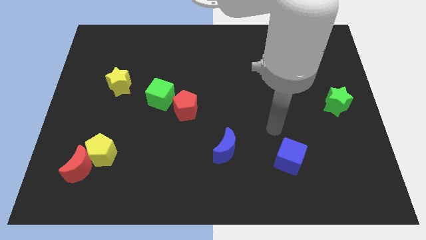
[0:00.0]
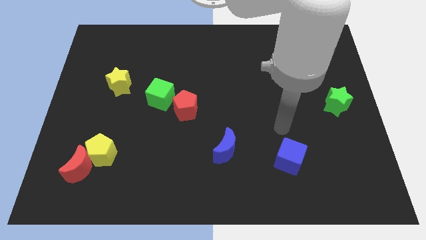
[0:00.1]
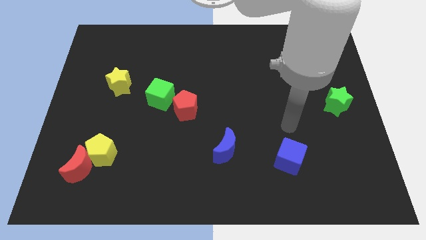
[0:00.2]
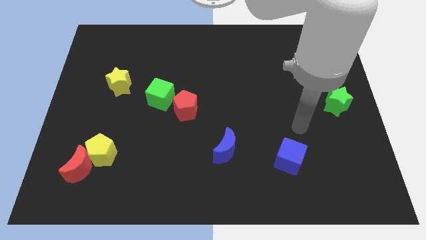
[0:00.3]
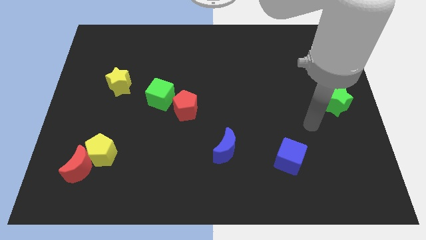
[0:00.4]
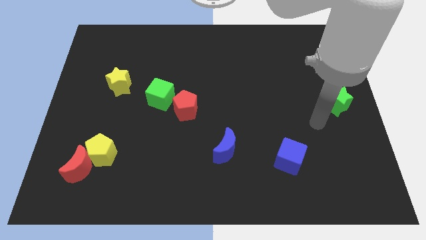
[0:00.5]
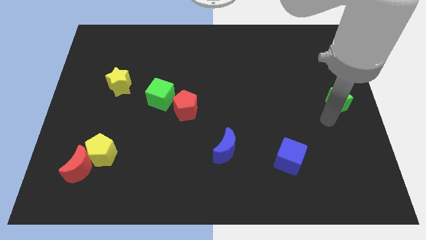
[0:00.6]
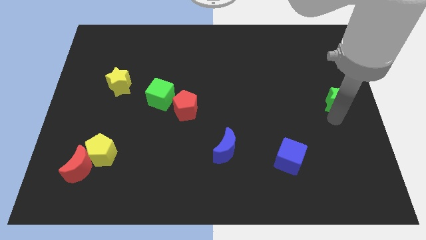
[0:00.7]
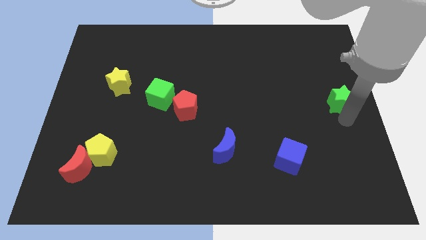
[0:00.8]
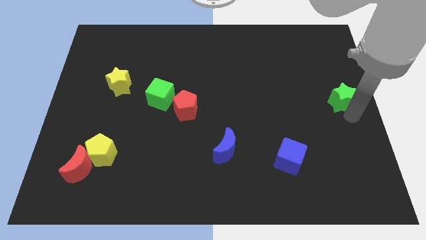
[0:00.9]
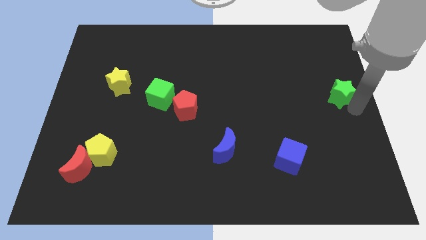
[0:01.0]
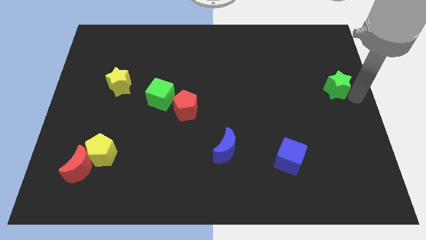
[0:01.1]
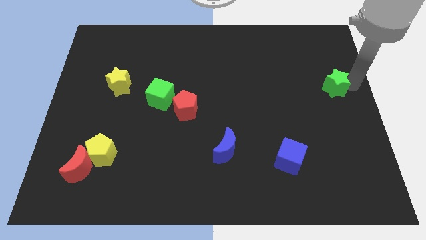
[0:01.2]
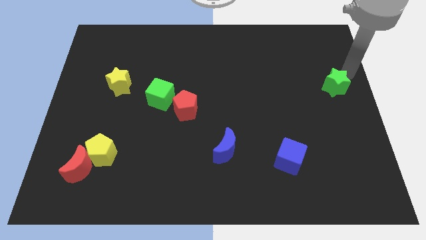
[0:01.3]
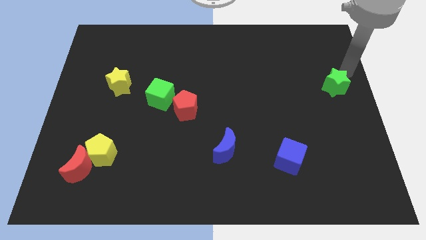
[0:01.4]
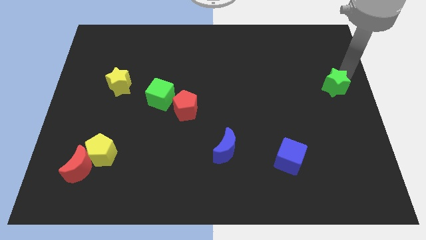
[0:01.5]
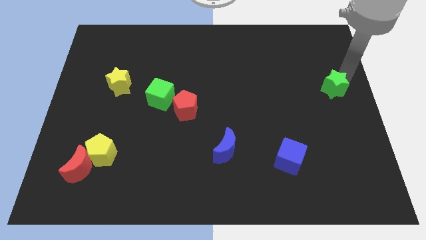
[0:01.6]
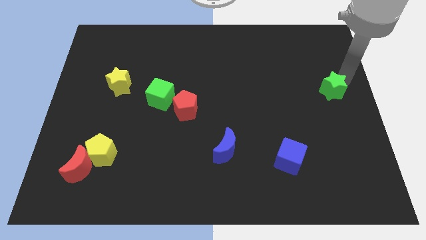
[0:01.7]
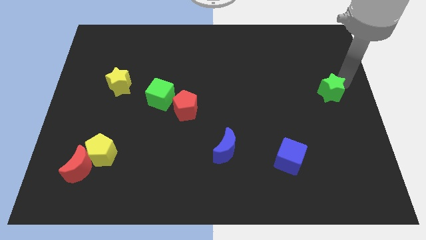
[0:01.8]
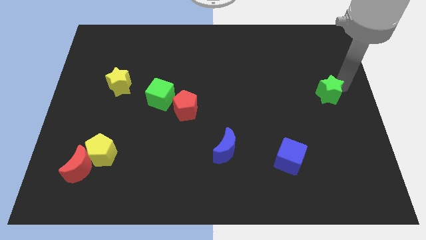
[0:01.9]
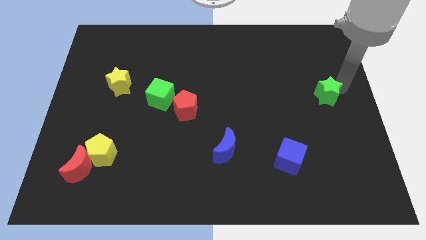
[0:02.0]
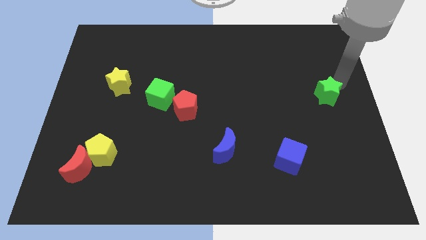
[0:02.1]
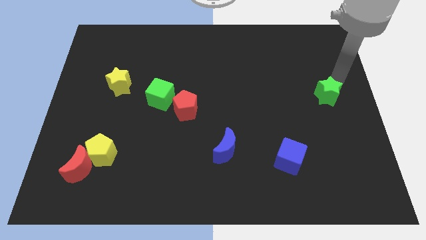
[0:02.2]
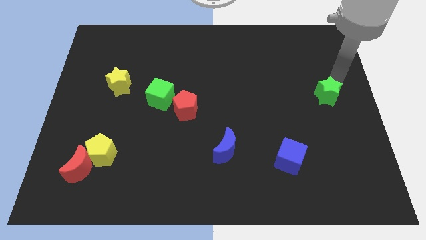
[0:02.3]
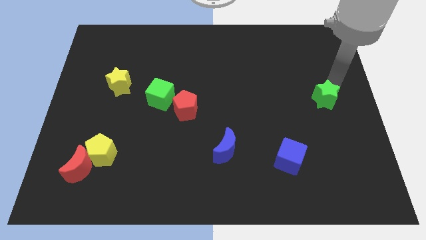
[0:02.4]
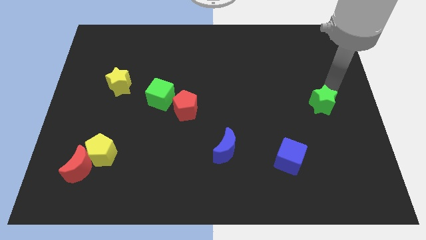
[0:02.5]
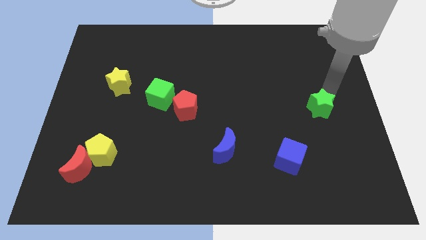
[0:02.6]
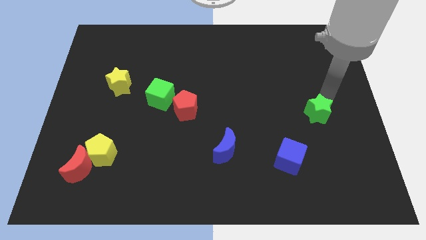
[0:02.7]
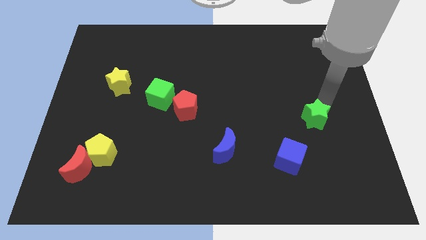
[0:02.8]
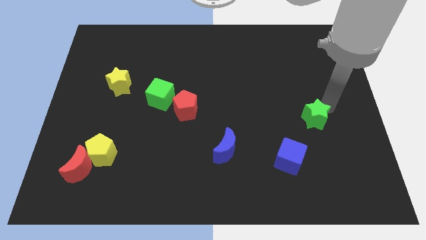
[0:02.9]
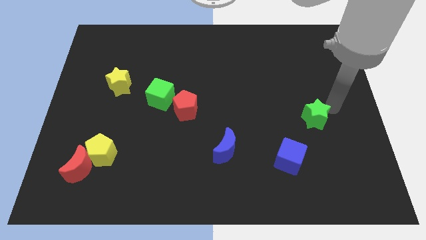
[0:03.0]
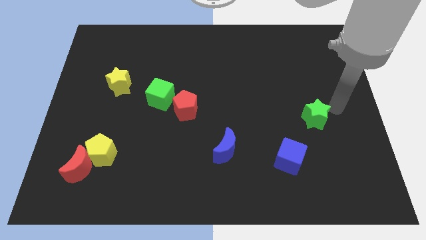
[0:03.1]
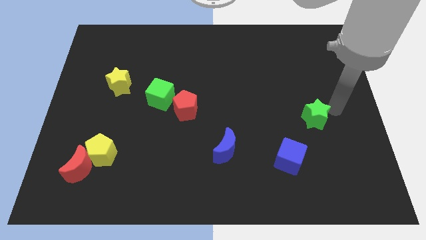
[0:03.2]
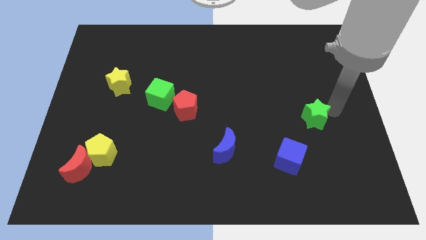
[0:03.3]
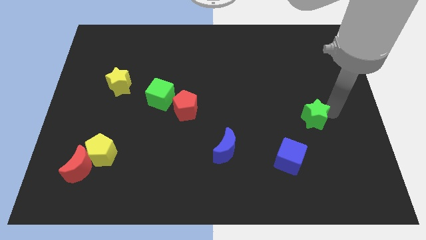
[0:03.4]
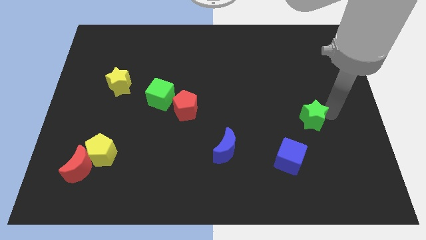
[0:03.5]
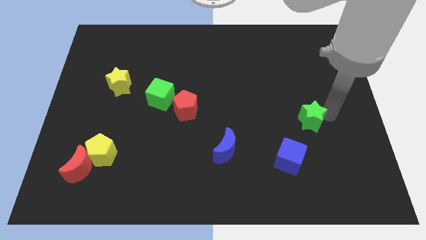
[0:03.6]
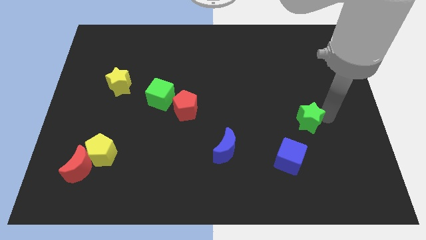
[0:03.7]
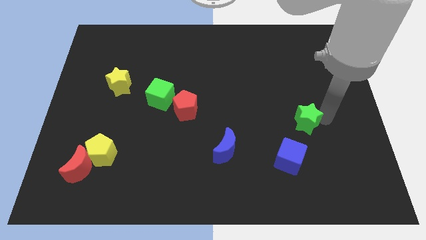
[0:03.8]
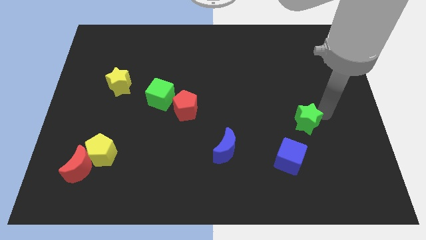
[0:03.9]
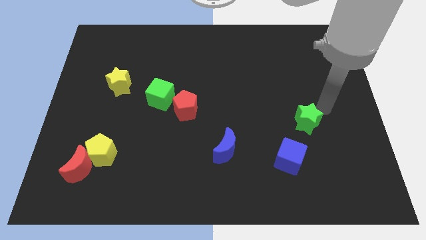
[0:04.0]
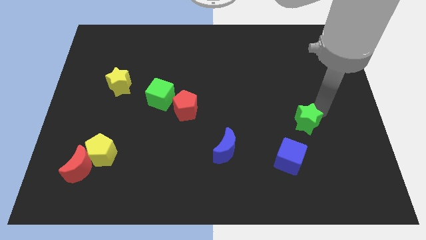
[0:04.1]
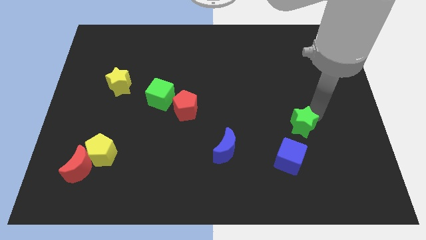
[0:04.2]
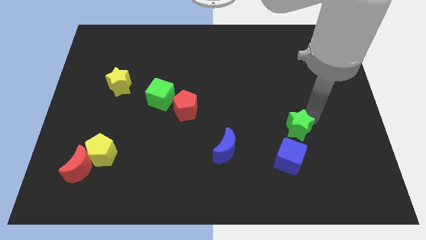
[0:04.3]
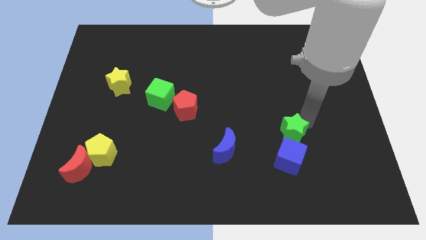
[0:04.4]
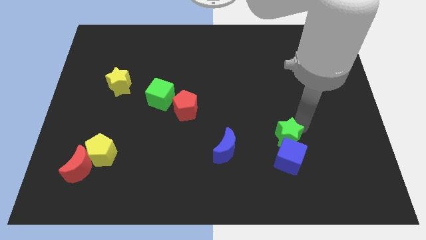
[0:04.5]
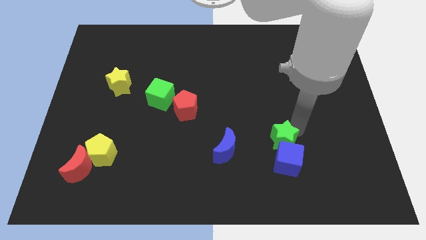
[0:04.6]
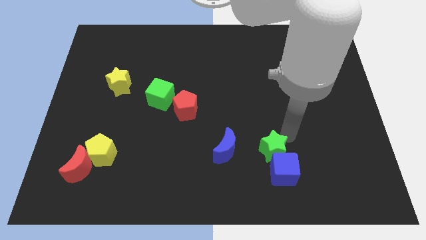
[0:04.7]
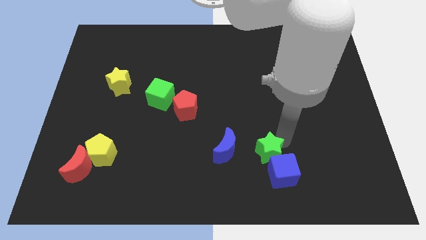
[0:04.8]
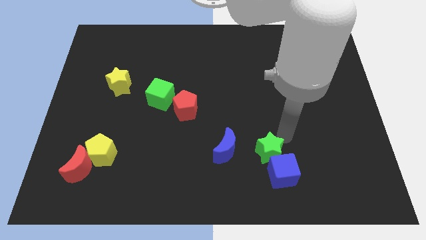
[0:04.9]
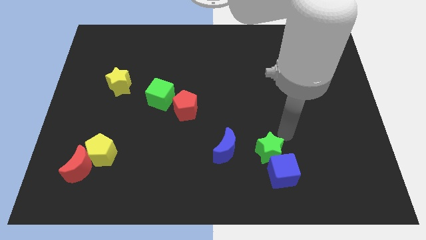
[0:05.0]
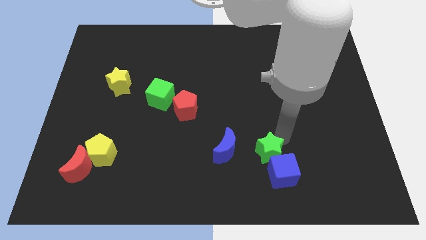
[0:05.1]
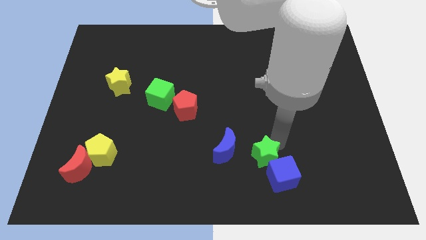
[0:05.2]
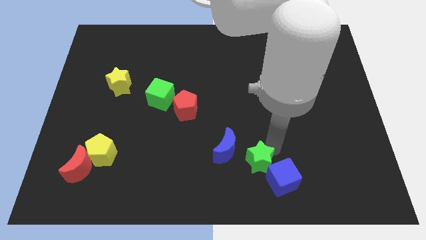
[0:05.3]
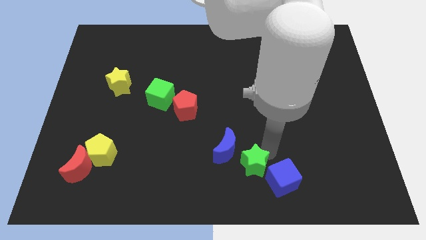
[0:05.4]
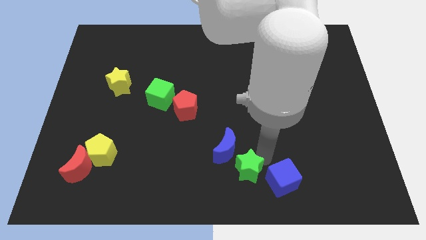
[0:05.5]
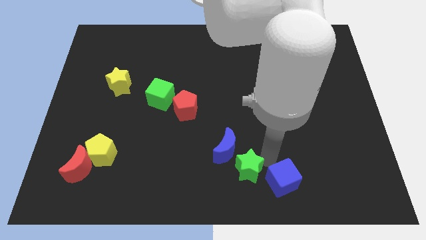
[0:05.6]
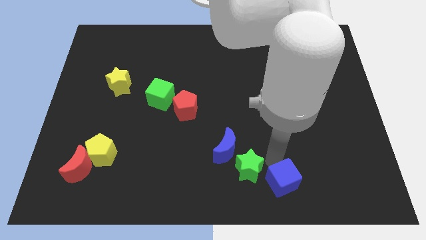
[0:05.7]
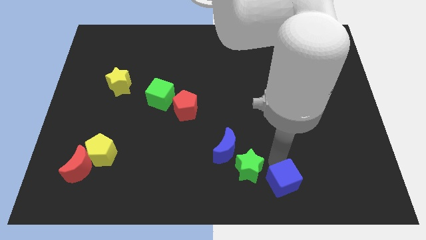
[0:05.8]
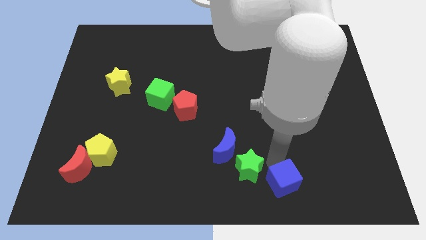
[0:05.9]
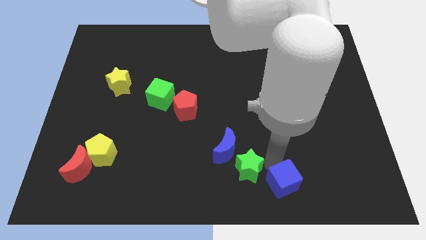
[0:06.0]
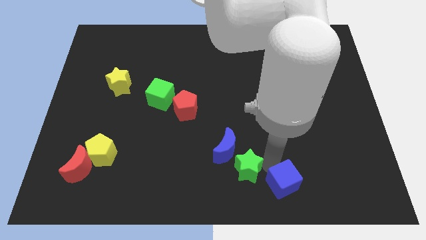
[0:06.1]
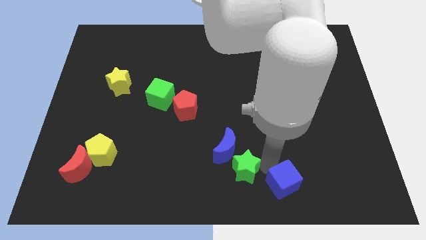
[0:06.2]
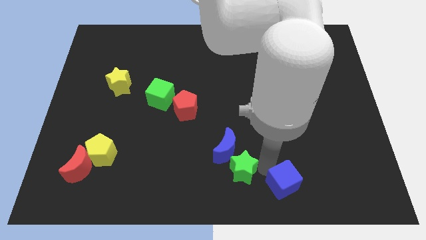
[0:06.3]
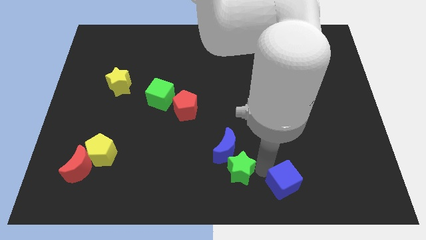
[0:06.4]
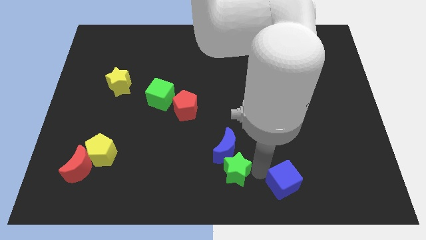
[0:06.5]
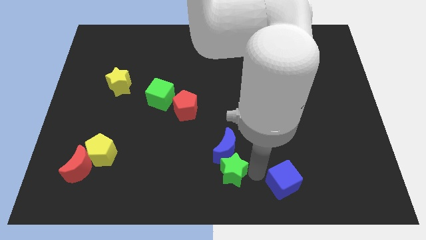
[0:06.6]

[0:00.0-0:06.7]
move the green star to the bottom left side of the blue moon

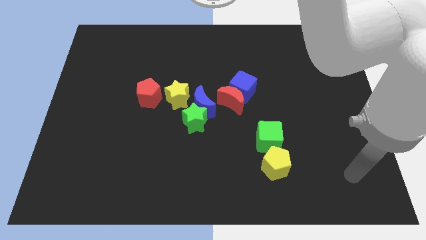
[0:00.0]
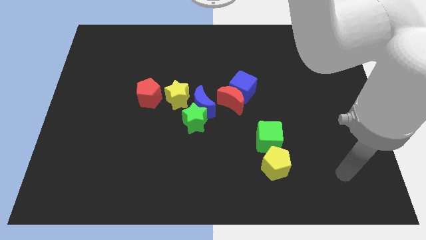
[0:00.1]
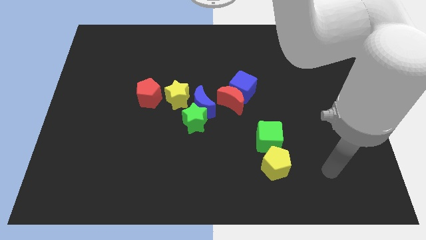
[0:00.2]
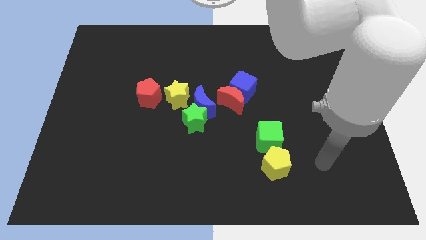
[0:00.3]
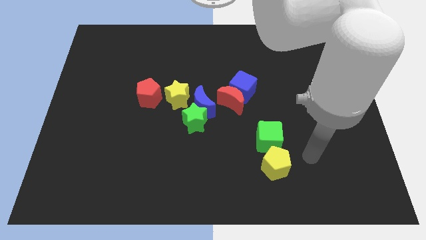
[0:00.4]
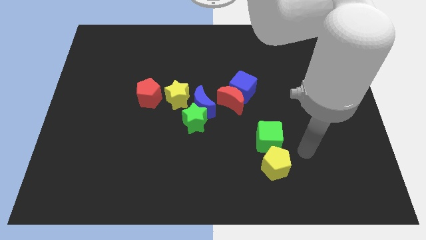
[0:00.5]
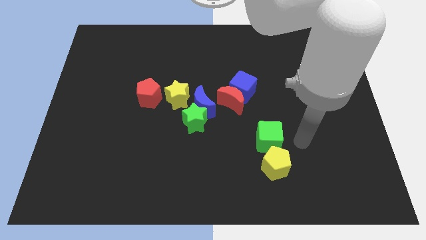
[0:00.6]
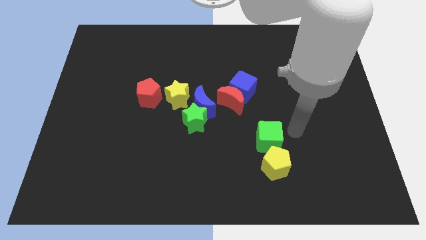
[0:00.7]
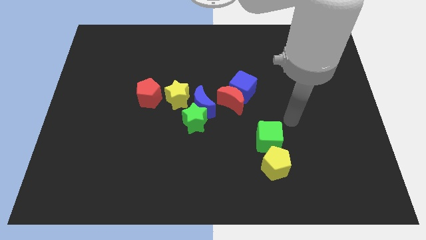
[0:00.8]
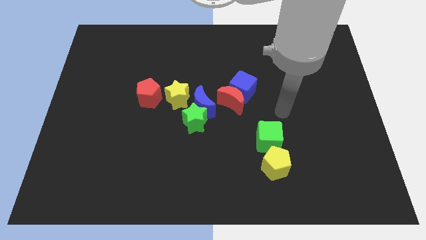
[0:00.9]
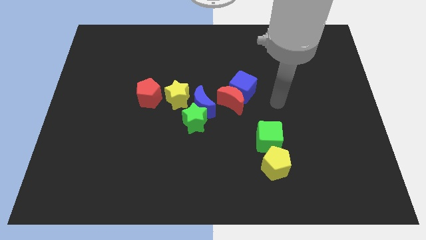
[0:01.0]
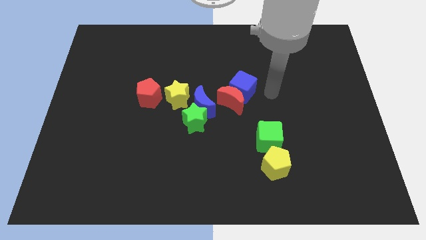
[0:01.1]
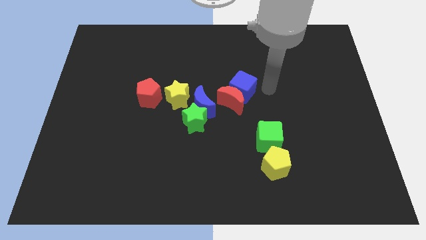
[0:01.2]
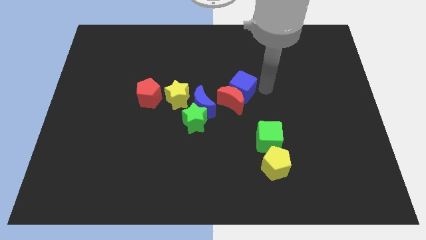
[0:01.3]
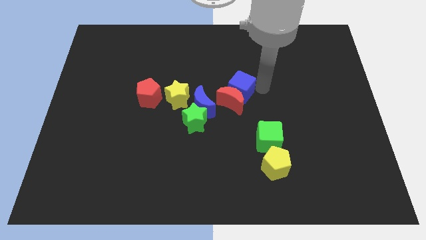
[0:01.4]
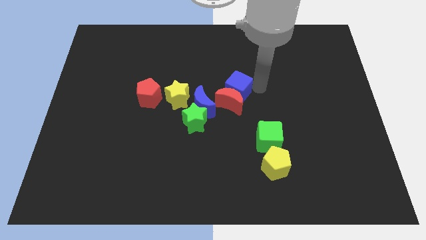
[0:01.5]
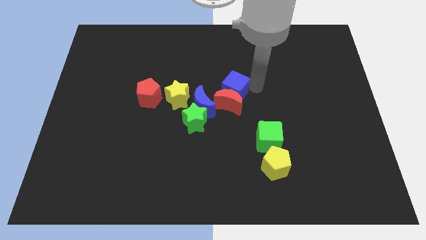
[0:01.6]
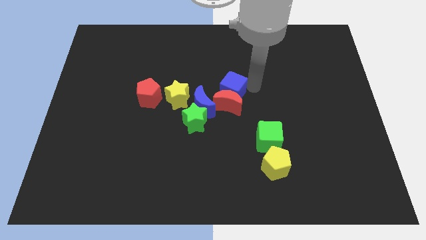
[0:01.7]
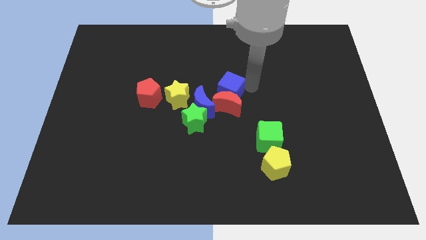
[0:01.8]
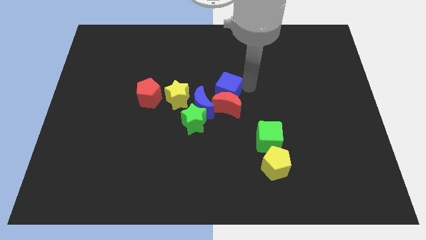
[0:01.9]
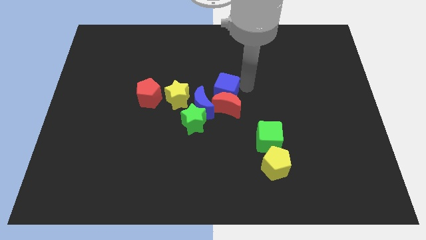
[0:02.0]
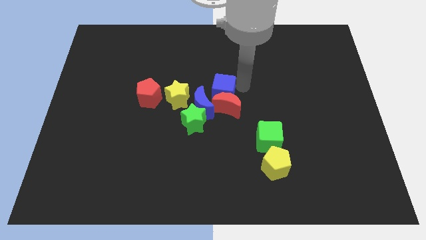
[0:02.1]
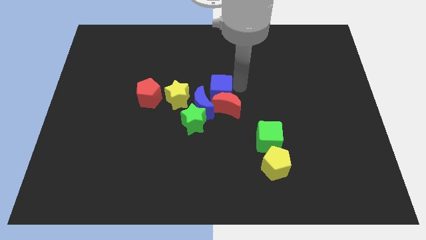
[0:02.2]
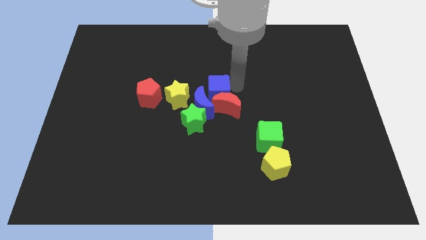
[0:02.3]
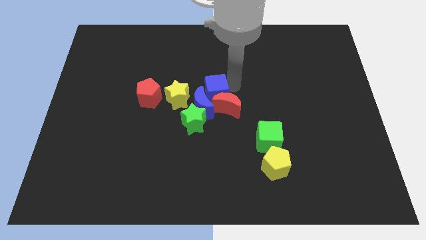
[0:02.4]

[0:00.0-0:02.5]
push the blue cube to the right of the red pentagon
